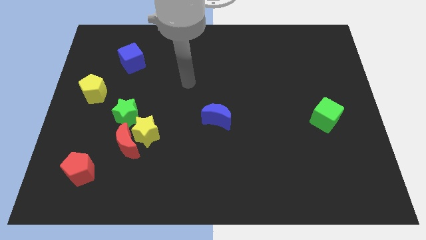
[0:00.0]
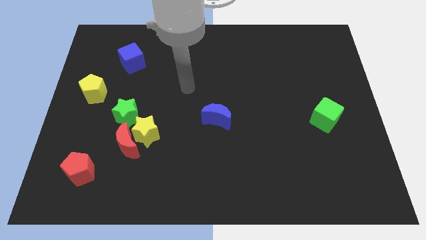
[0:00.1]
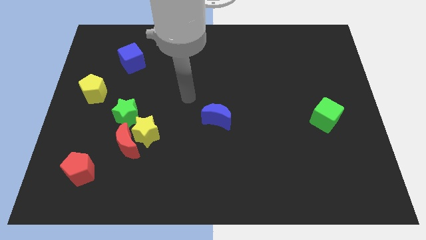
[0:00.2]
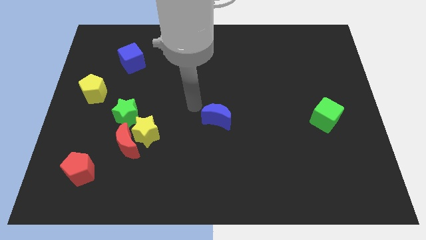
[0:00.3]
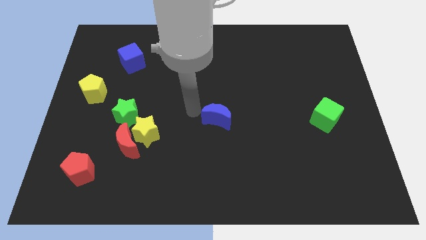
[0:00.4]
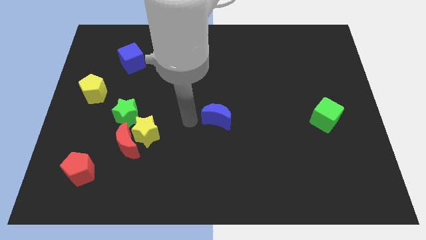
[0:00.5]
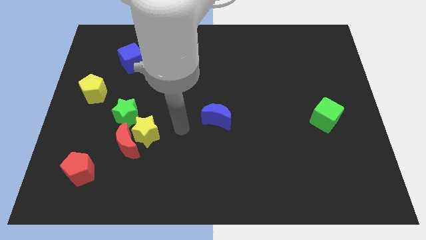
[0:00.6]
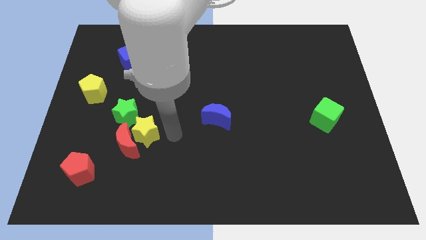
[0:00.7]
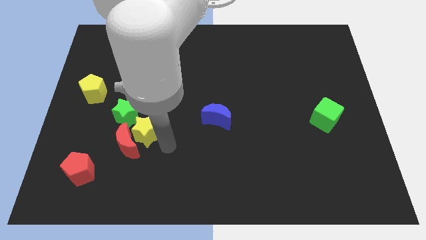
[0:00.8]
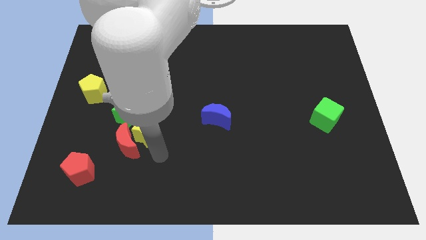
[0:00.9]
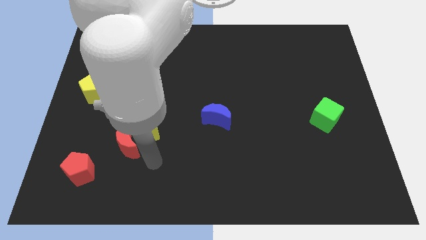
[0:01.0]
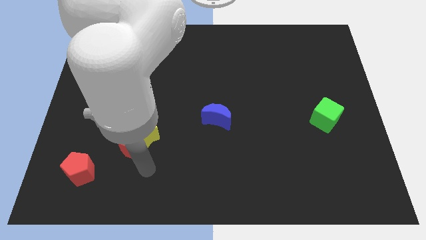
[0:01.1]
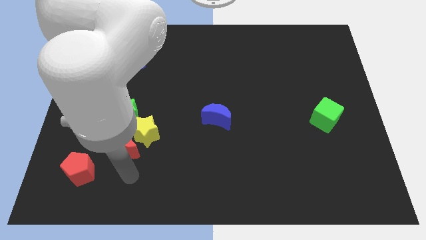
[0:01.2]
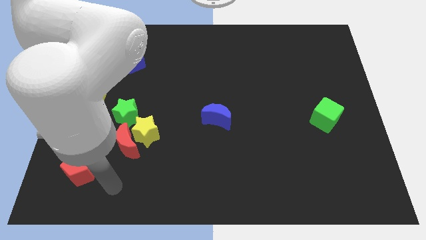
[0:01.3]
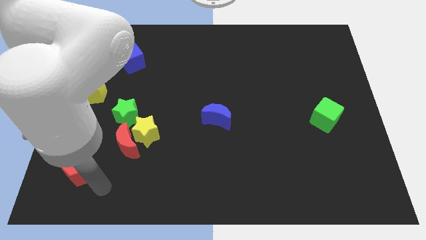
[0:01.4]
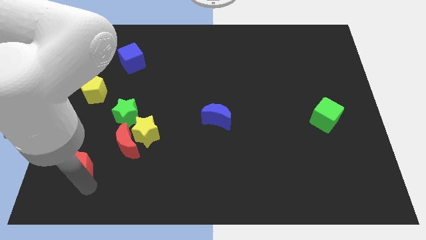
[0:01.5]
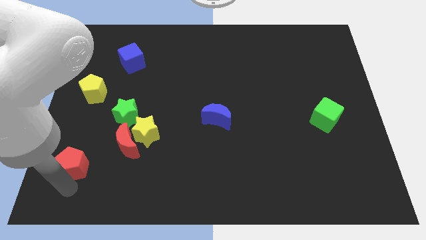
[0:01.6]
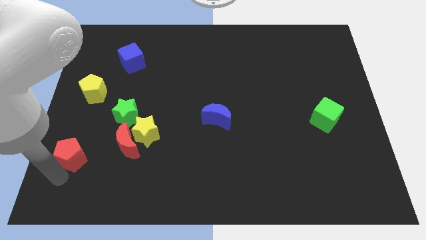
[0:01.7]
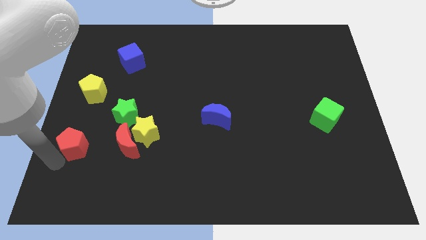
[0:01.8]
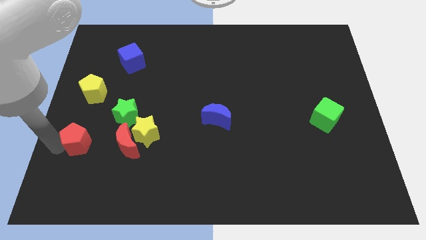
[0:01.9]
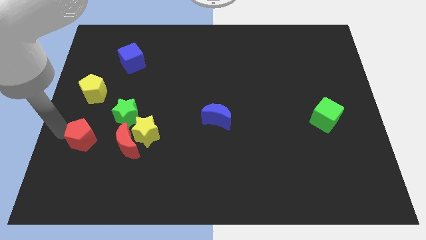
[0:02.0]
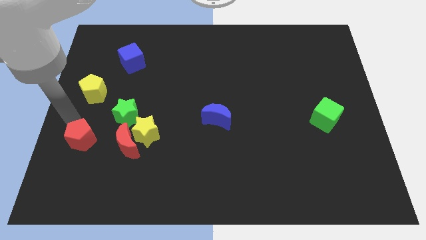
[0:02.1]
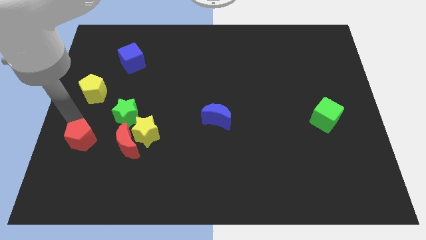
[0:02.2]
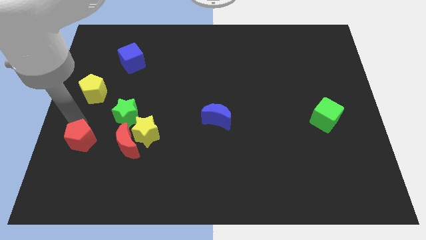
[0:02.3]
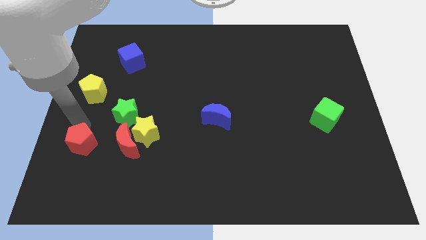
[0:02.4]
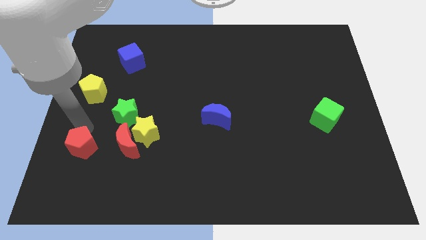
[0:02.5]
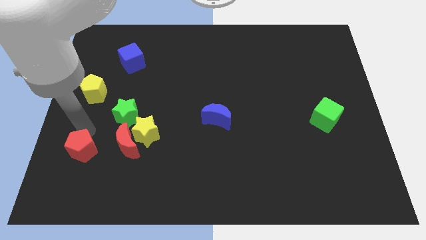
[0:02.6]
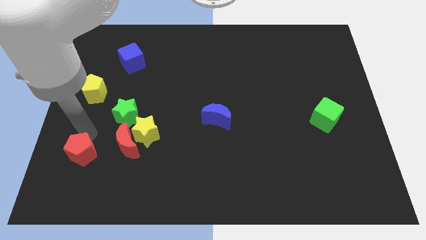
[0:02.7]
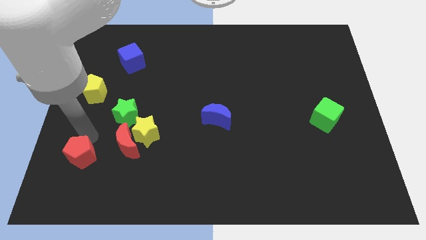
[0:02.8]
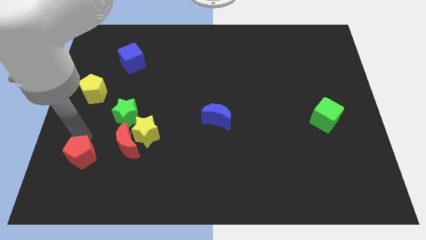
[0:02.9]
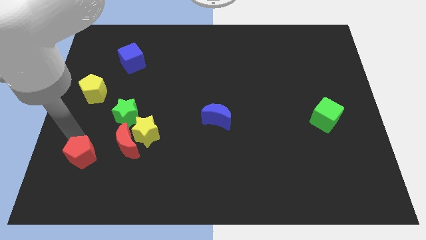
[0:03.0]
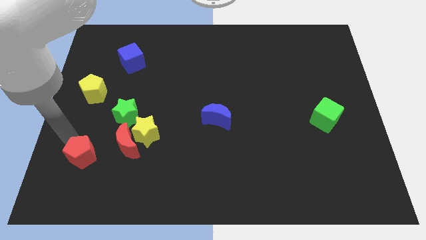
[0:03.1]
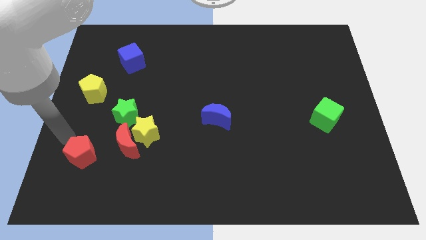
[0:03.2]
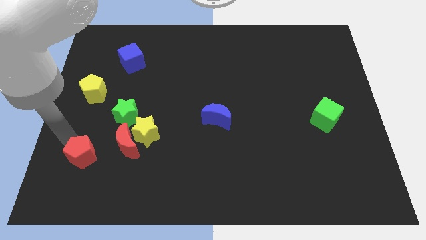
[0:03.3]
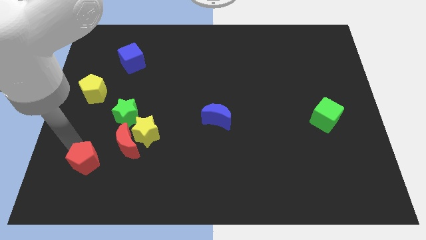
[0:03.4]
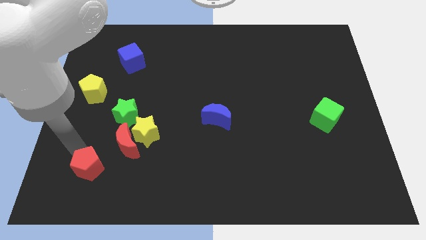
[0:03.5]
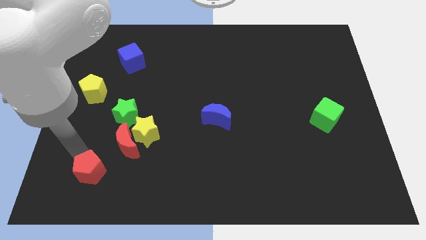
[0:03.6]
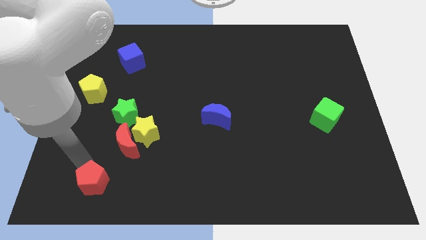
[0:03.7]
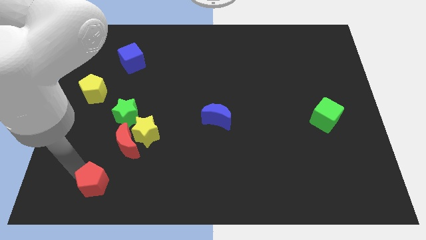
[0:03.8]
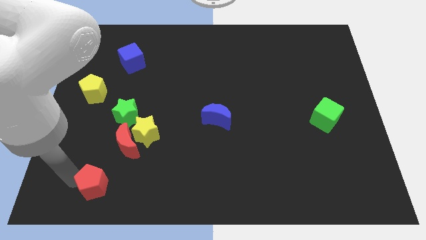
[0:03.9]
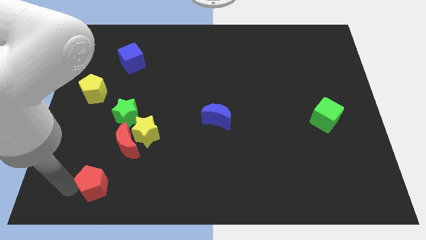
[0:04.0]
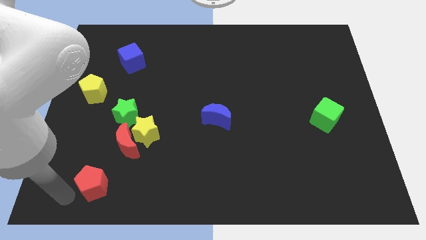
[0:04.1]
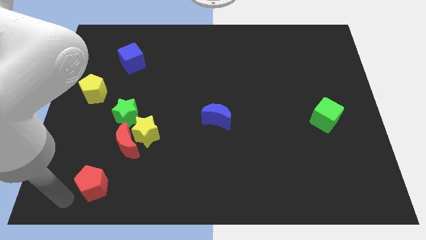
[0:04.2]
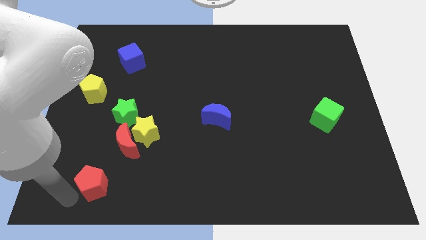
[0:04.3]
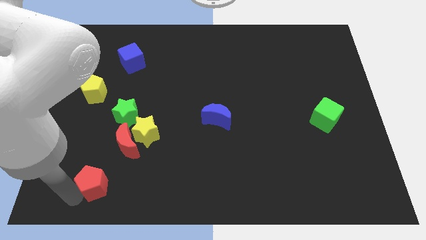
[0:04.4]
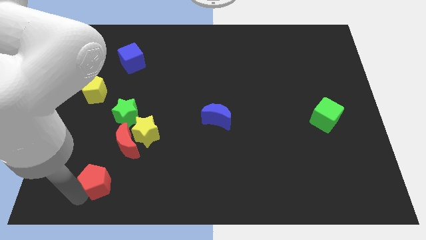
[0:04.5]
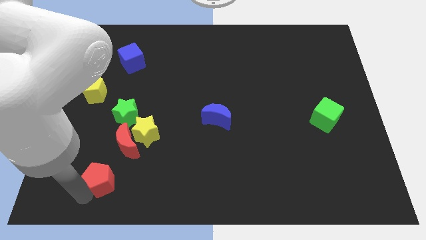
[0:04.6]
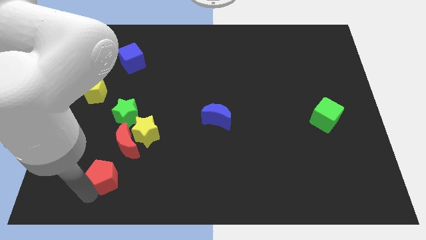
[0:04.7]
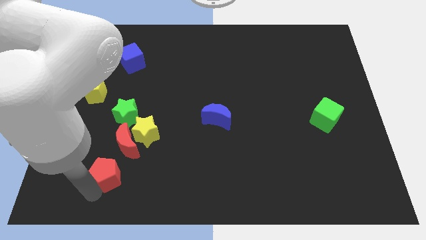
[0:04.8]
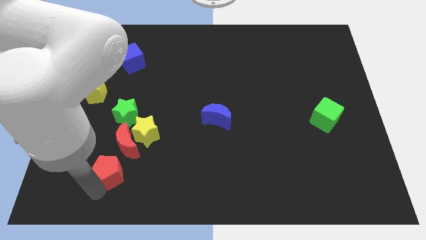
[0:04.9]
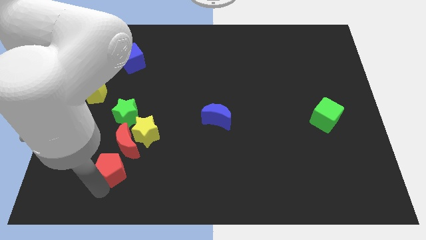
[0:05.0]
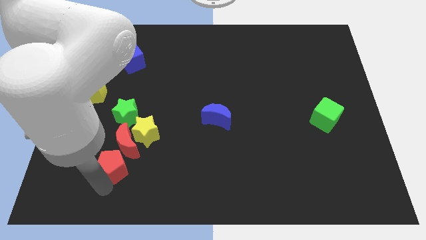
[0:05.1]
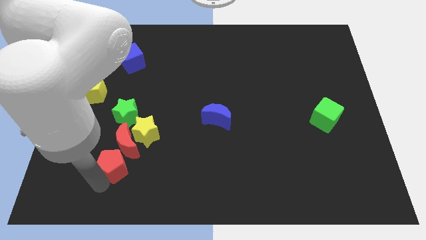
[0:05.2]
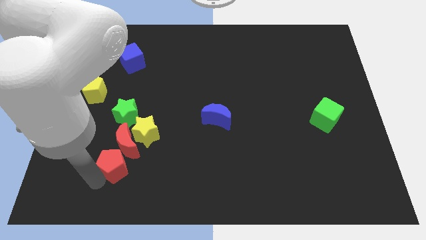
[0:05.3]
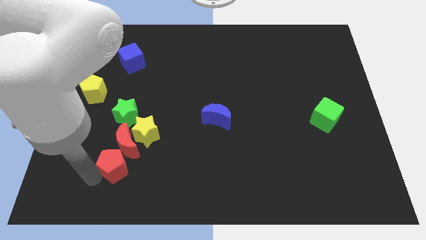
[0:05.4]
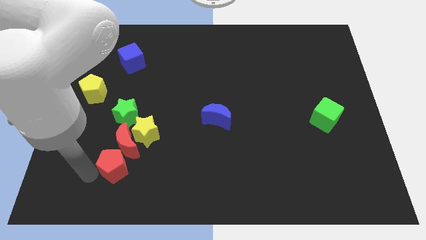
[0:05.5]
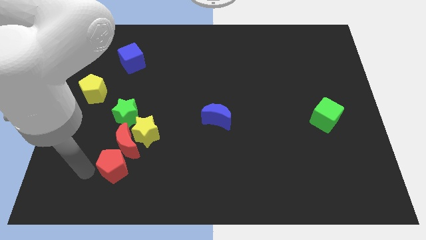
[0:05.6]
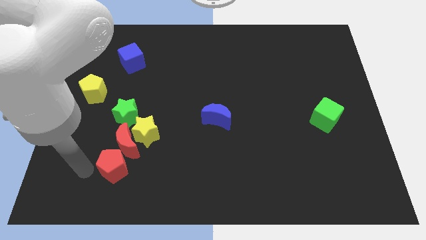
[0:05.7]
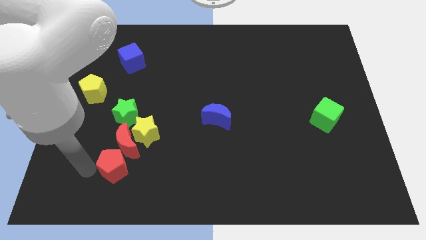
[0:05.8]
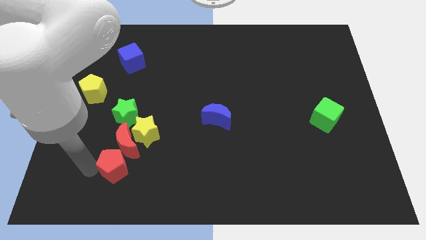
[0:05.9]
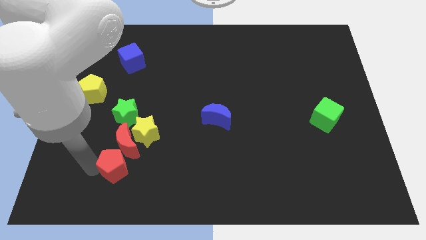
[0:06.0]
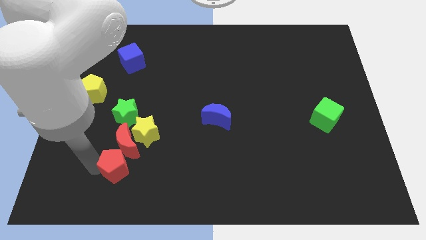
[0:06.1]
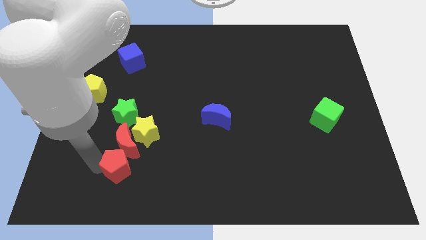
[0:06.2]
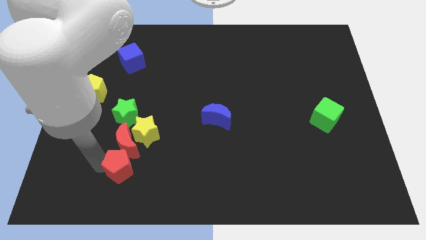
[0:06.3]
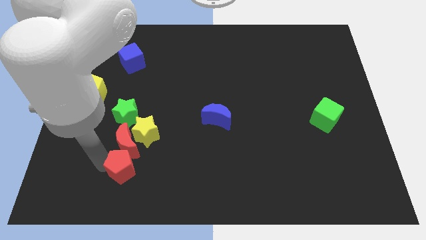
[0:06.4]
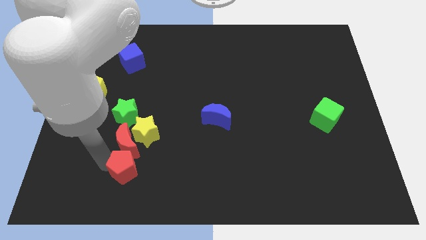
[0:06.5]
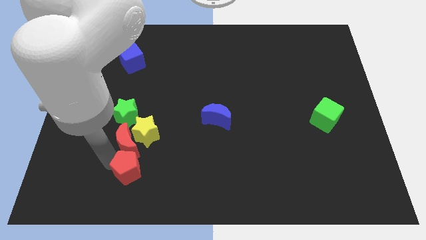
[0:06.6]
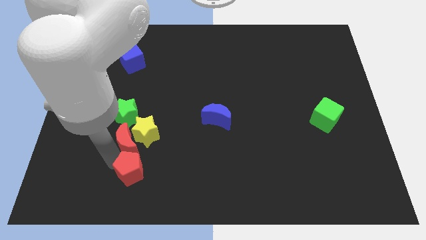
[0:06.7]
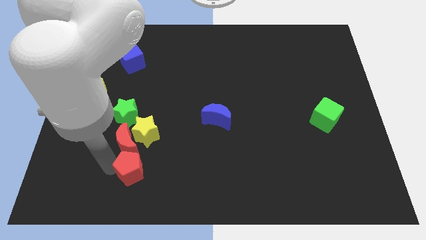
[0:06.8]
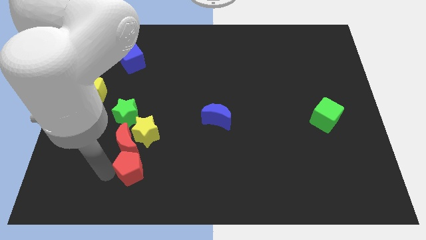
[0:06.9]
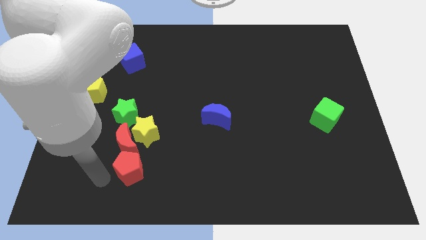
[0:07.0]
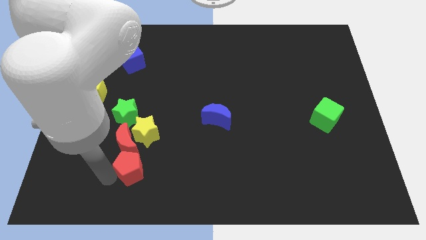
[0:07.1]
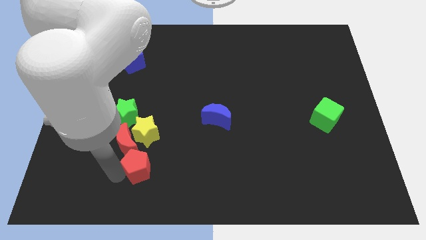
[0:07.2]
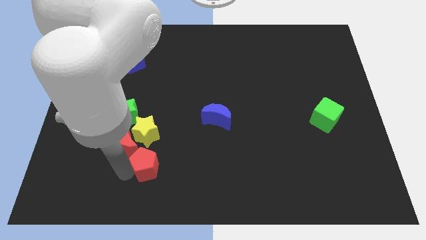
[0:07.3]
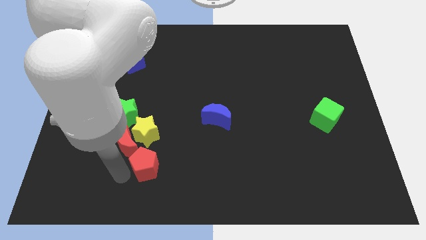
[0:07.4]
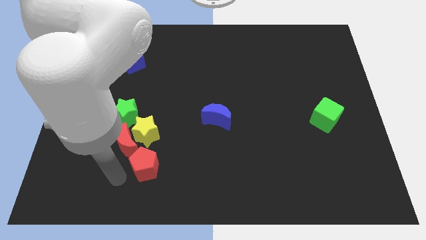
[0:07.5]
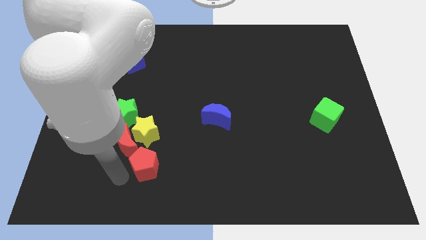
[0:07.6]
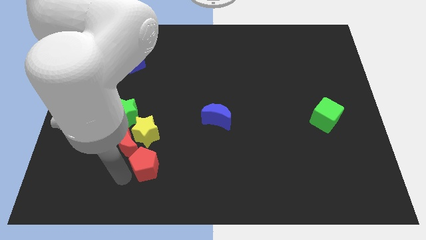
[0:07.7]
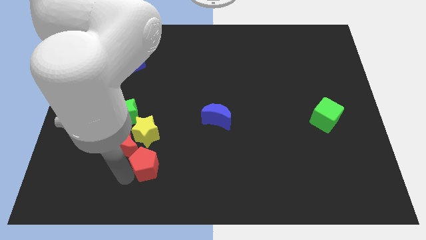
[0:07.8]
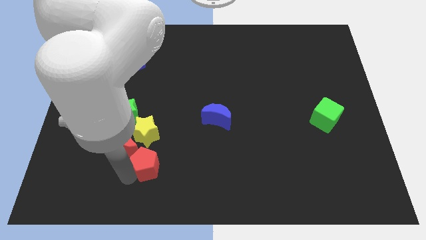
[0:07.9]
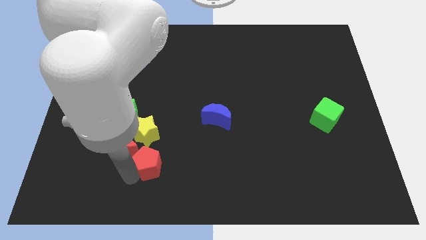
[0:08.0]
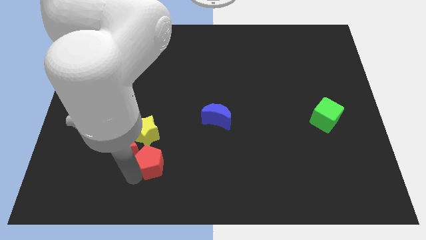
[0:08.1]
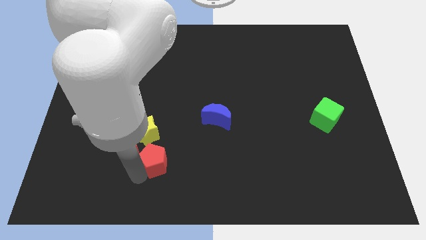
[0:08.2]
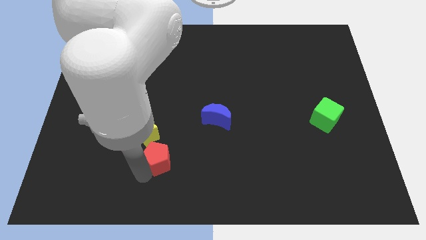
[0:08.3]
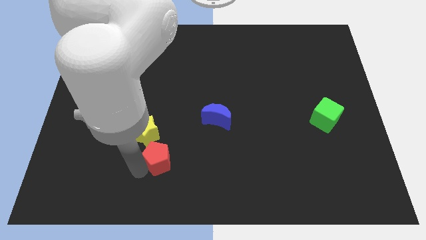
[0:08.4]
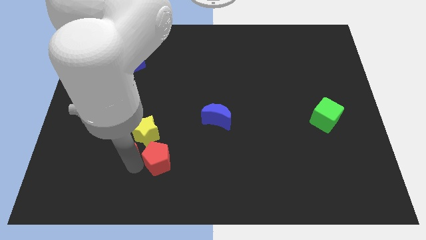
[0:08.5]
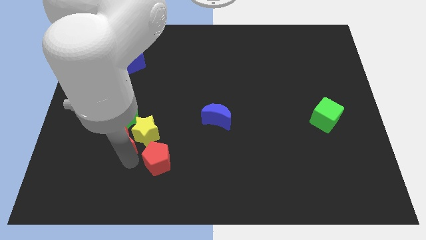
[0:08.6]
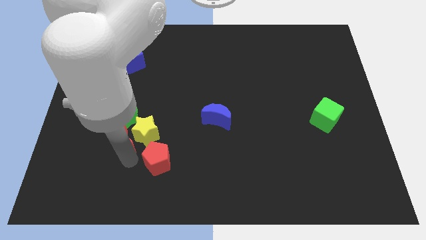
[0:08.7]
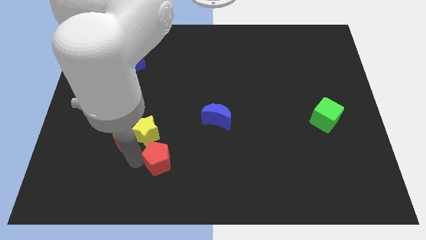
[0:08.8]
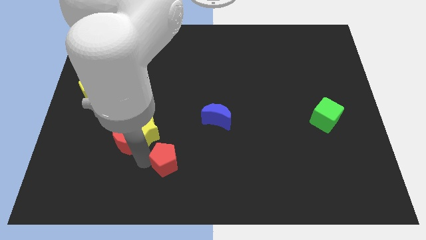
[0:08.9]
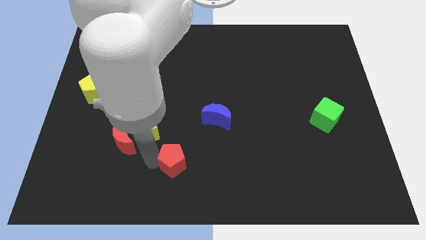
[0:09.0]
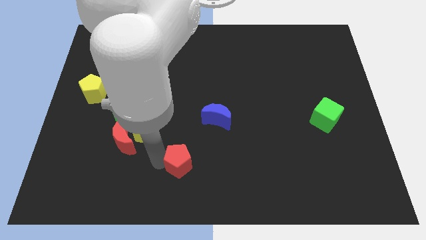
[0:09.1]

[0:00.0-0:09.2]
move the red pentagon right
